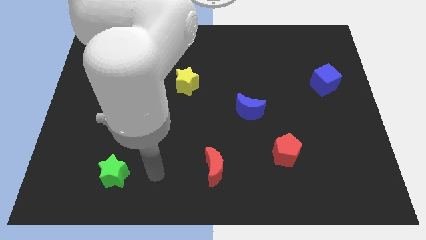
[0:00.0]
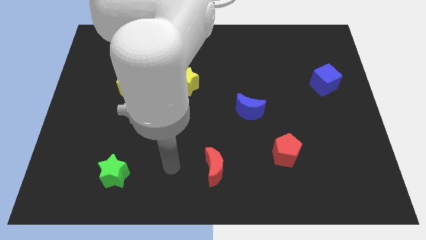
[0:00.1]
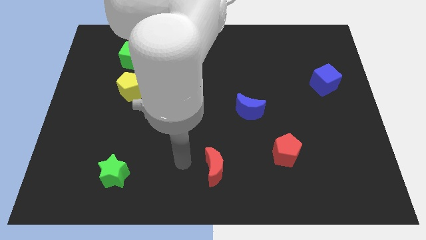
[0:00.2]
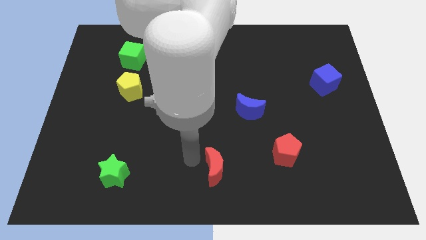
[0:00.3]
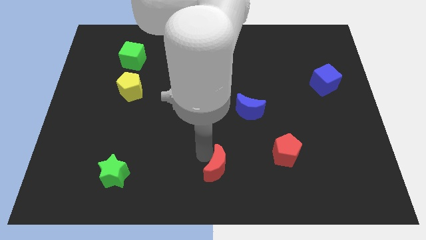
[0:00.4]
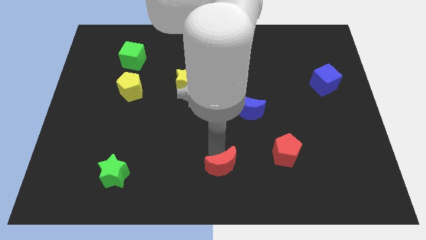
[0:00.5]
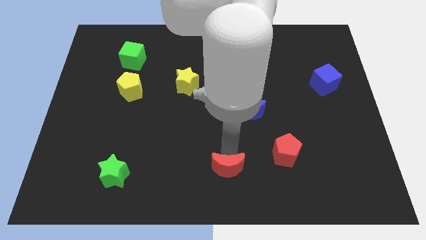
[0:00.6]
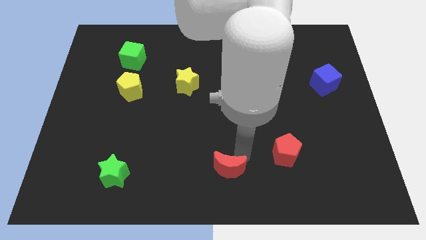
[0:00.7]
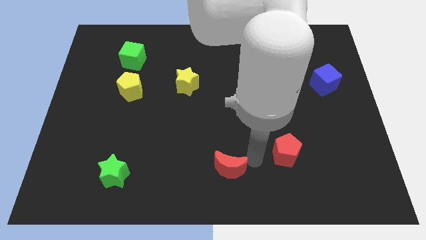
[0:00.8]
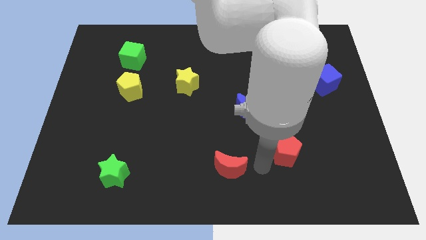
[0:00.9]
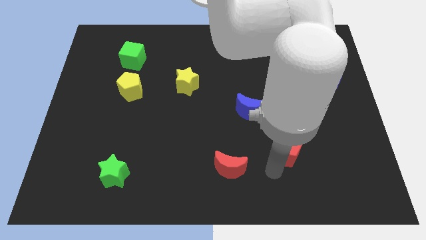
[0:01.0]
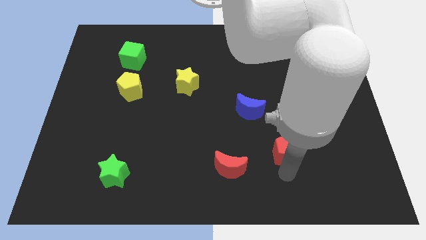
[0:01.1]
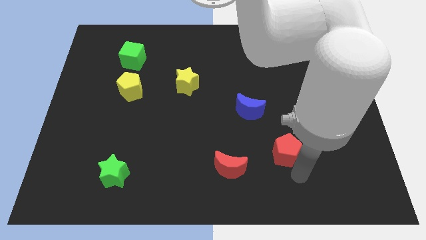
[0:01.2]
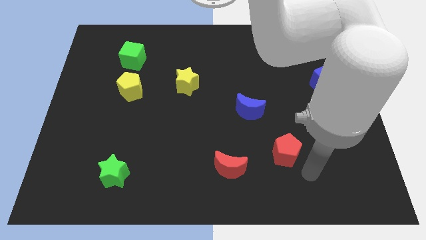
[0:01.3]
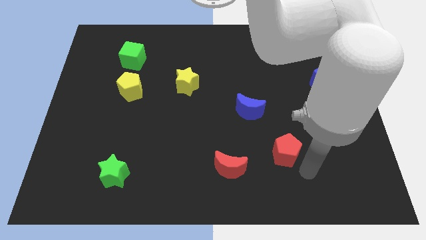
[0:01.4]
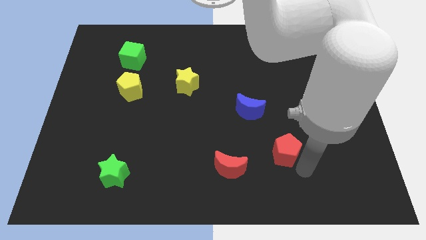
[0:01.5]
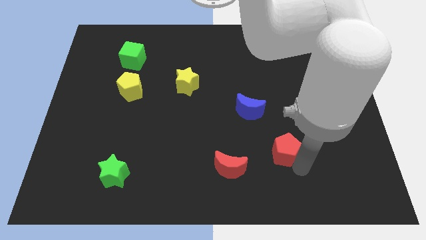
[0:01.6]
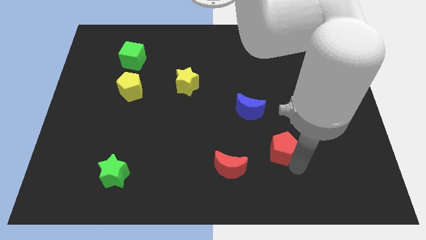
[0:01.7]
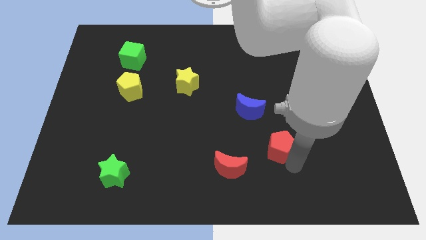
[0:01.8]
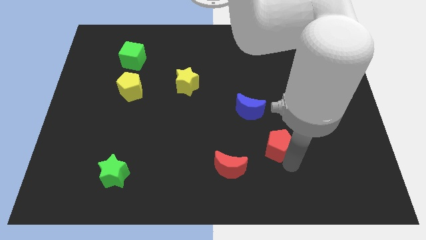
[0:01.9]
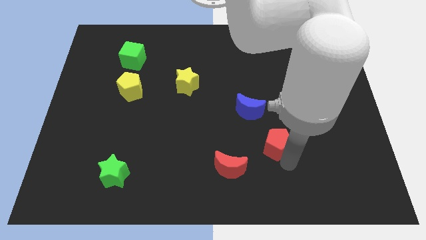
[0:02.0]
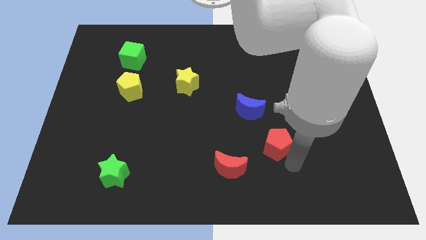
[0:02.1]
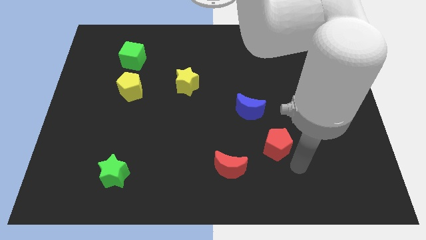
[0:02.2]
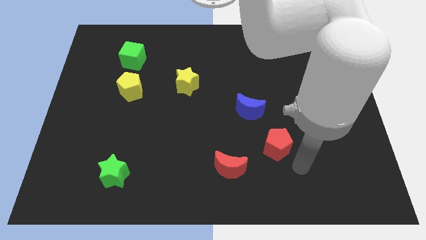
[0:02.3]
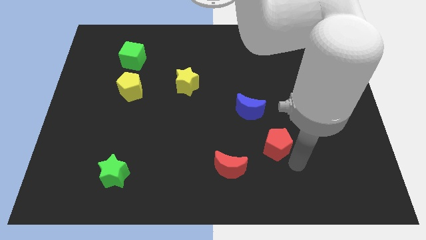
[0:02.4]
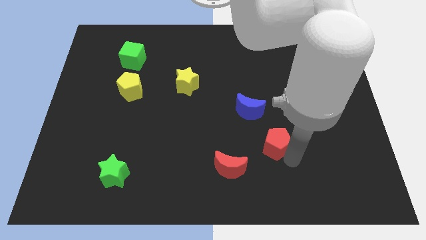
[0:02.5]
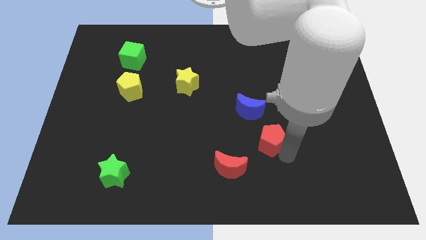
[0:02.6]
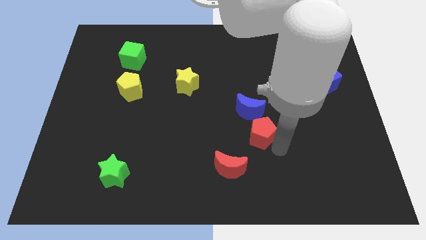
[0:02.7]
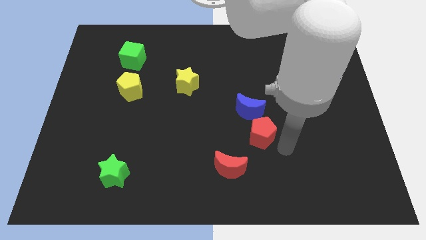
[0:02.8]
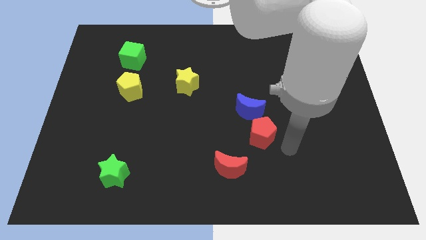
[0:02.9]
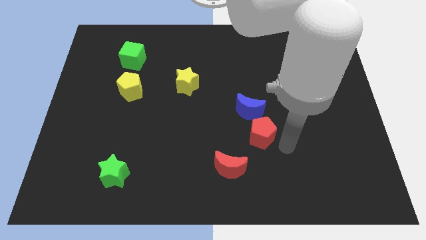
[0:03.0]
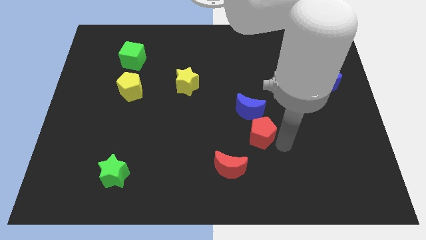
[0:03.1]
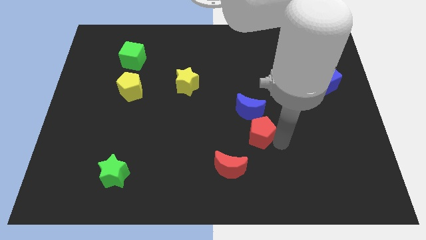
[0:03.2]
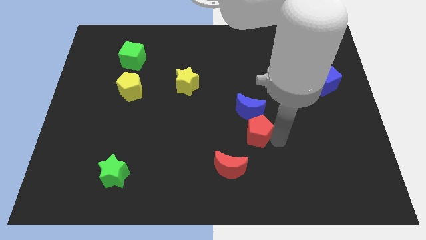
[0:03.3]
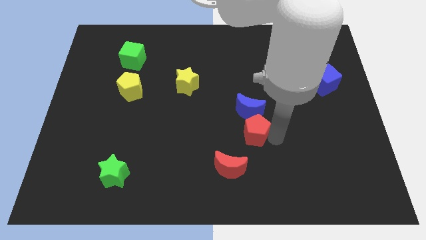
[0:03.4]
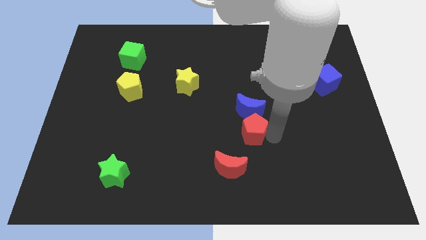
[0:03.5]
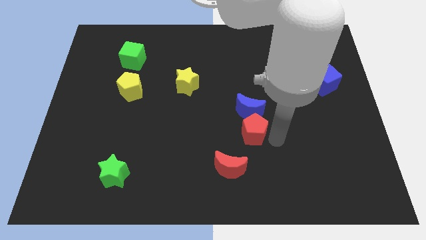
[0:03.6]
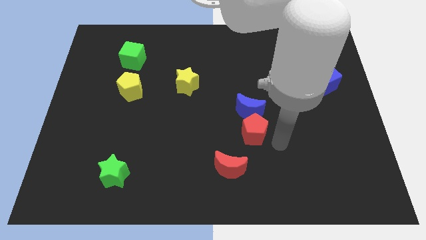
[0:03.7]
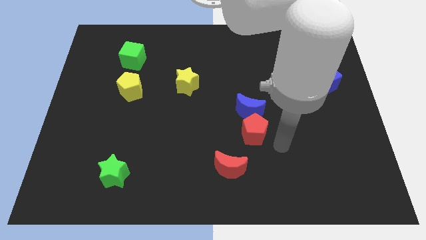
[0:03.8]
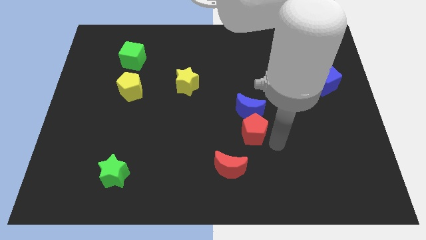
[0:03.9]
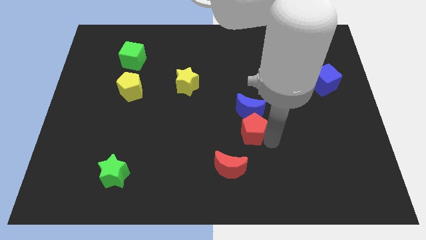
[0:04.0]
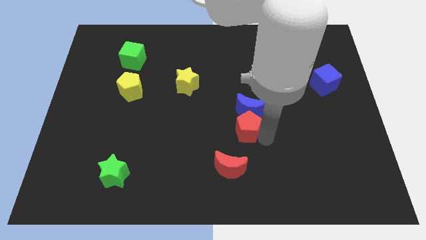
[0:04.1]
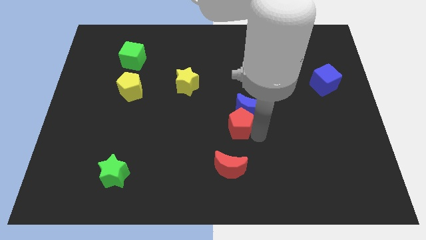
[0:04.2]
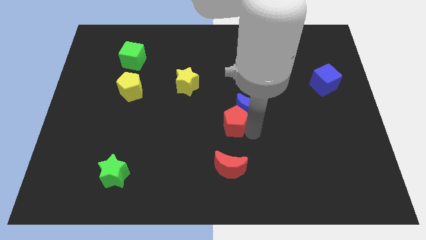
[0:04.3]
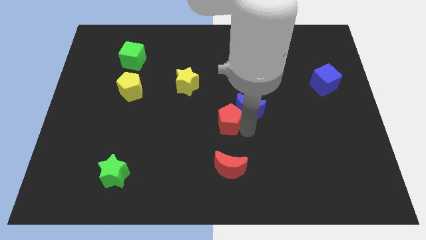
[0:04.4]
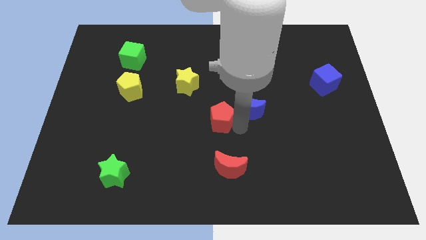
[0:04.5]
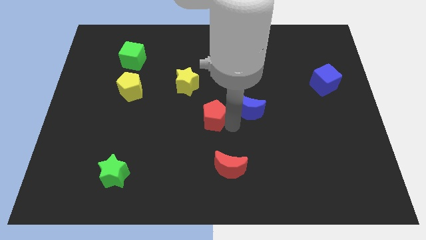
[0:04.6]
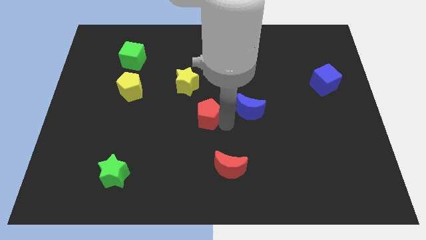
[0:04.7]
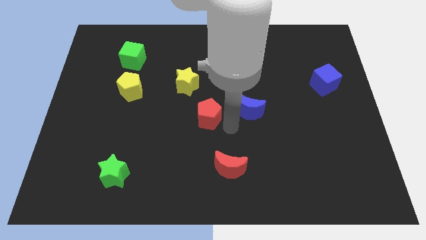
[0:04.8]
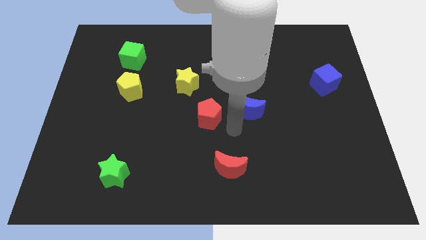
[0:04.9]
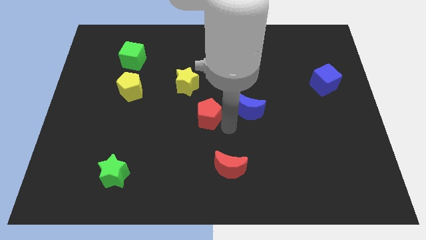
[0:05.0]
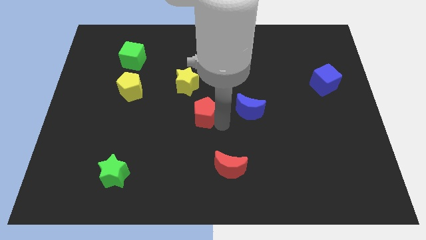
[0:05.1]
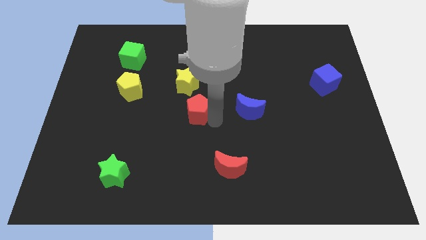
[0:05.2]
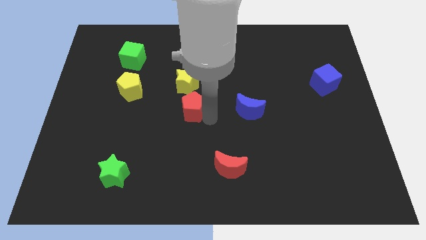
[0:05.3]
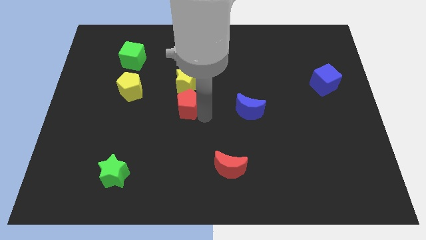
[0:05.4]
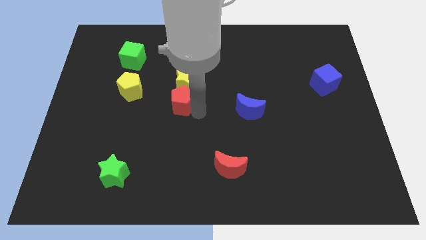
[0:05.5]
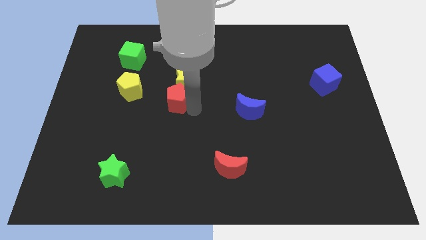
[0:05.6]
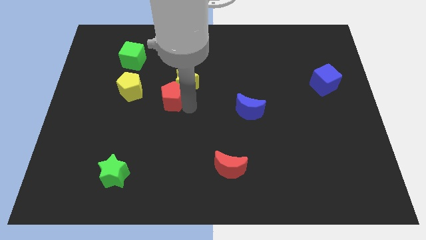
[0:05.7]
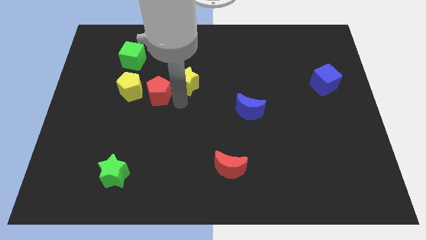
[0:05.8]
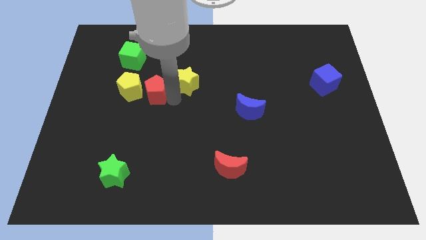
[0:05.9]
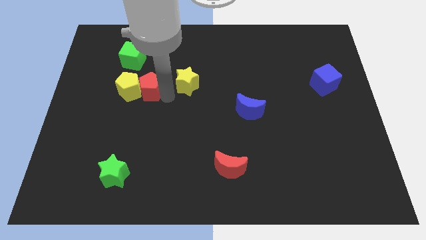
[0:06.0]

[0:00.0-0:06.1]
move the red pentagon towards the yellow pentagon

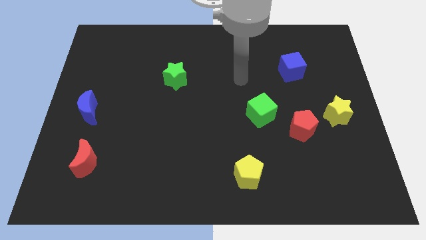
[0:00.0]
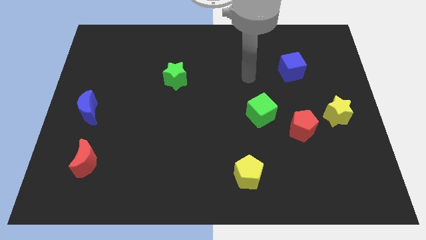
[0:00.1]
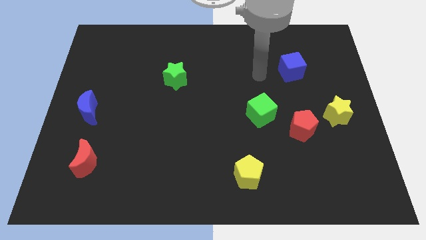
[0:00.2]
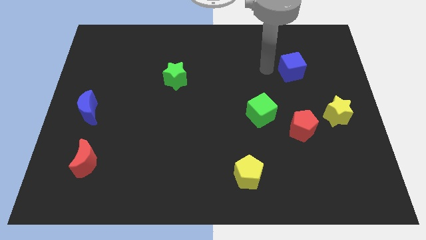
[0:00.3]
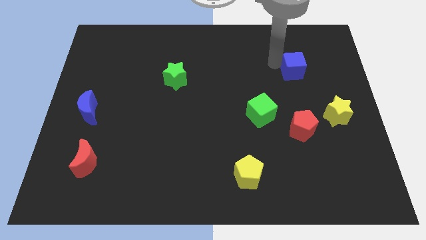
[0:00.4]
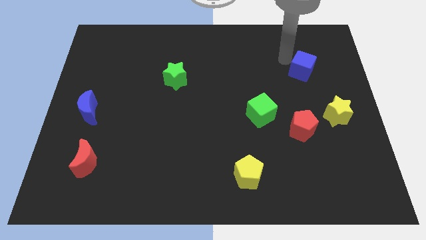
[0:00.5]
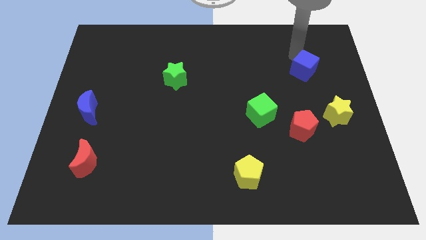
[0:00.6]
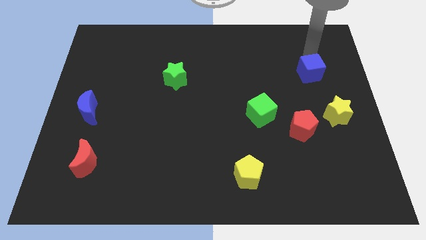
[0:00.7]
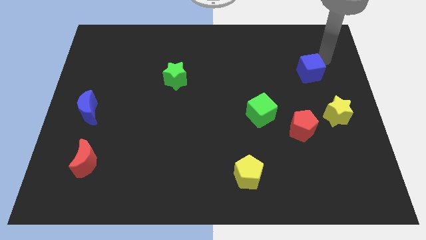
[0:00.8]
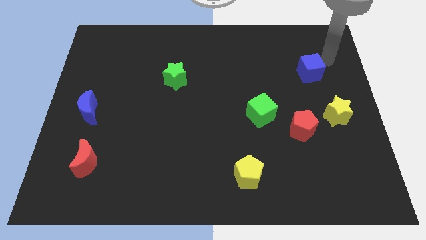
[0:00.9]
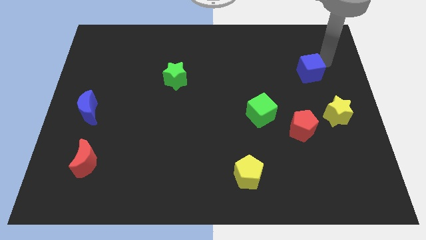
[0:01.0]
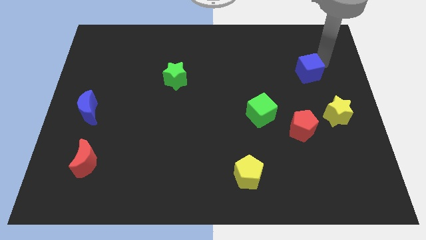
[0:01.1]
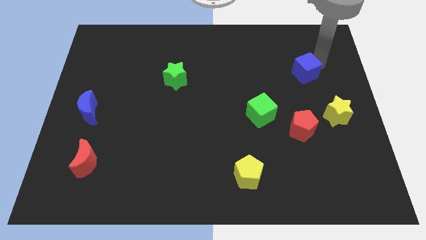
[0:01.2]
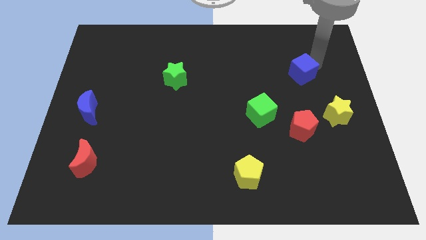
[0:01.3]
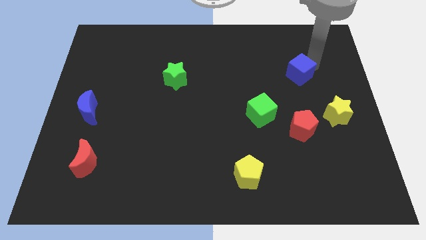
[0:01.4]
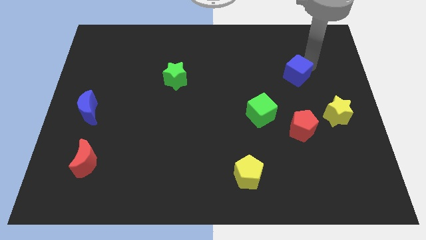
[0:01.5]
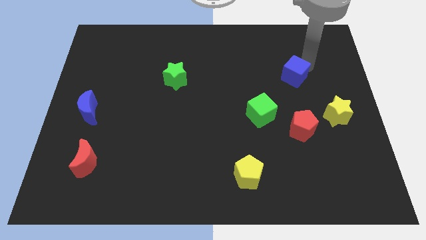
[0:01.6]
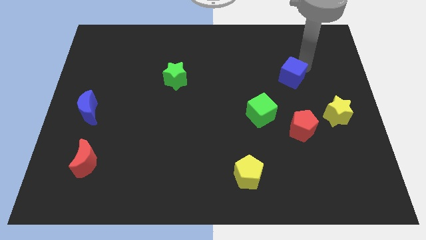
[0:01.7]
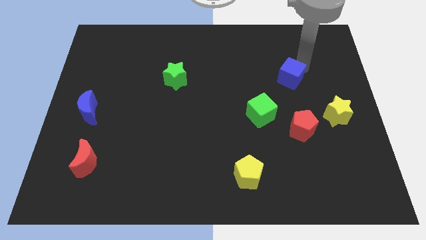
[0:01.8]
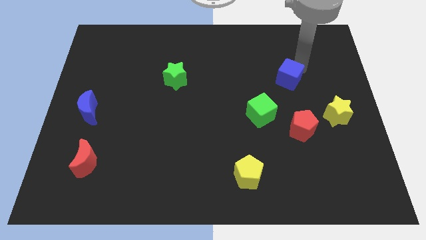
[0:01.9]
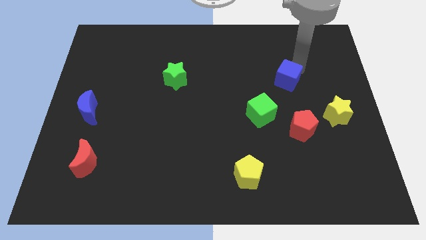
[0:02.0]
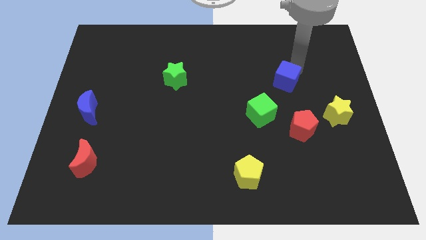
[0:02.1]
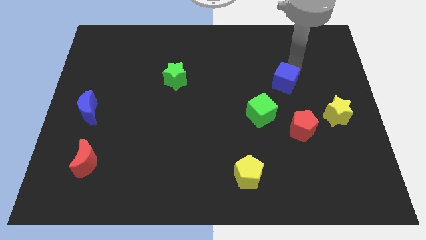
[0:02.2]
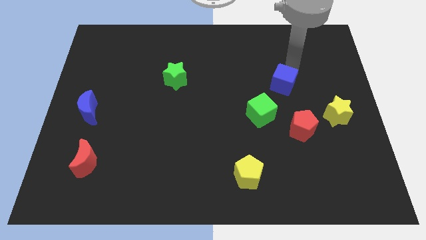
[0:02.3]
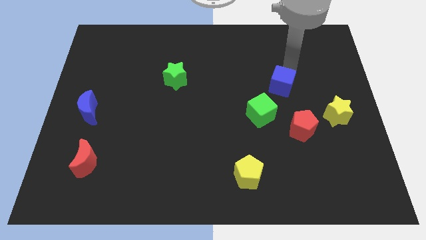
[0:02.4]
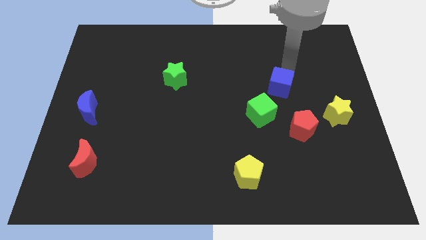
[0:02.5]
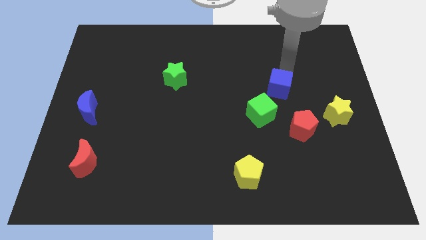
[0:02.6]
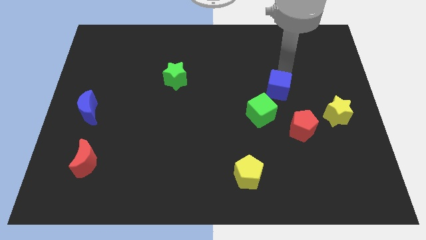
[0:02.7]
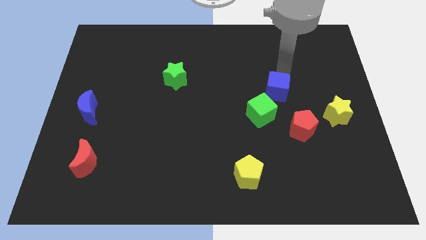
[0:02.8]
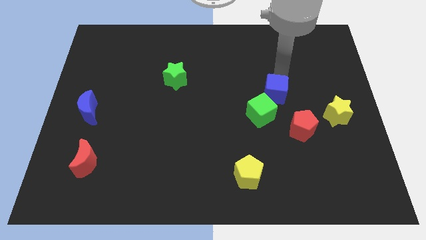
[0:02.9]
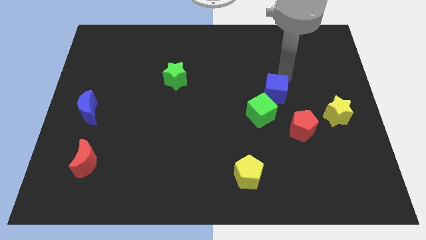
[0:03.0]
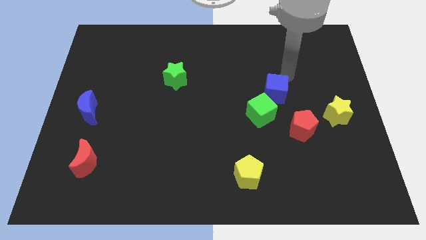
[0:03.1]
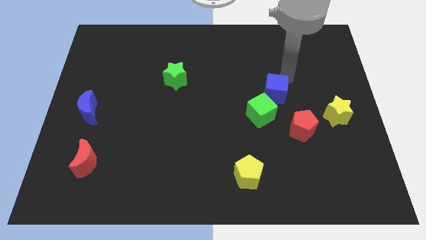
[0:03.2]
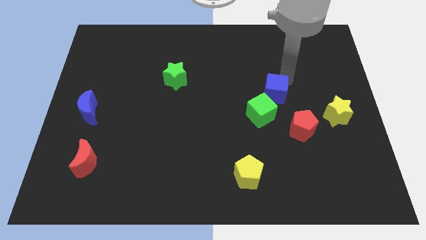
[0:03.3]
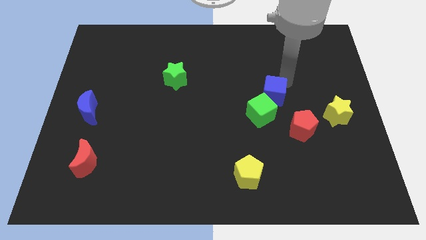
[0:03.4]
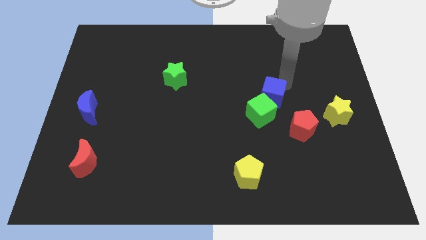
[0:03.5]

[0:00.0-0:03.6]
push the blue cube close to the green cube
